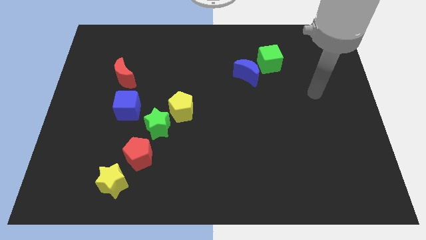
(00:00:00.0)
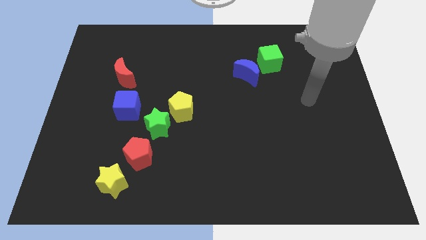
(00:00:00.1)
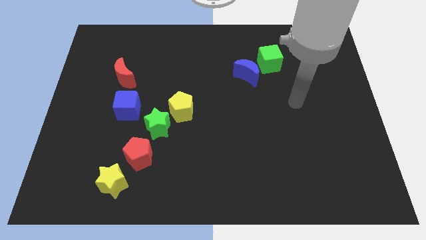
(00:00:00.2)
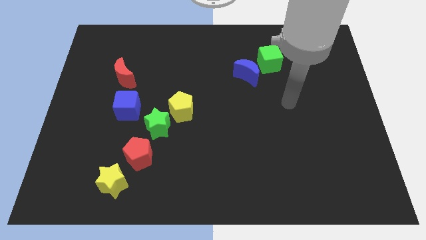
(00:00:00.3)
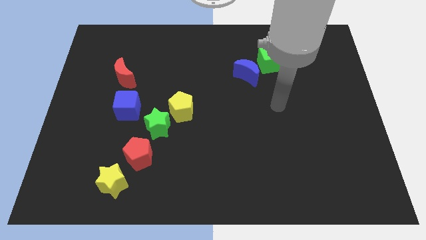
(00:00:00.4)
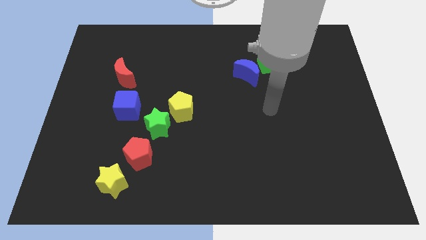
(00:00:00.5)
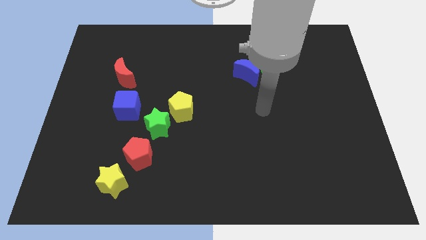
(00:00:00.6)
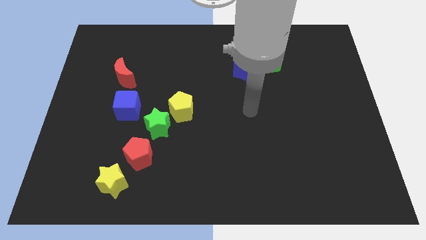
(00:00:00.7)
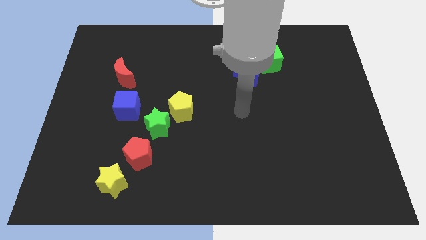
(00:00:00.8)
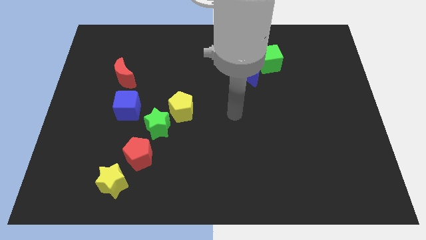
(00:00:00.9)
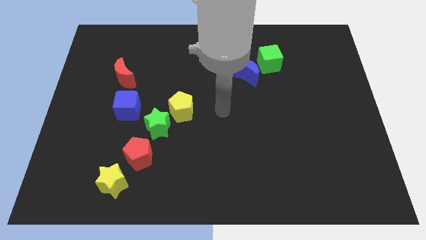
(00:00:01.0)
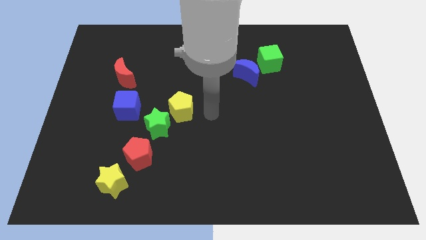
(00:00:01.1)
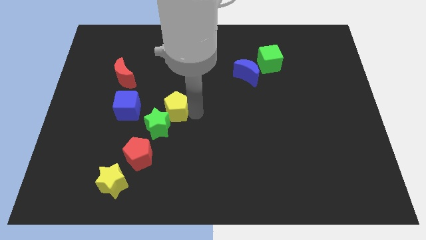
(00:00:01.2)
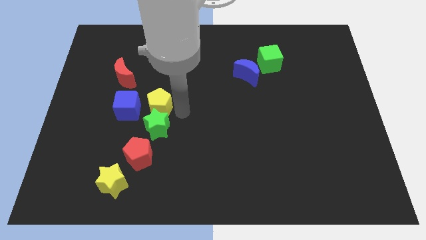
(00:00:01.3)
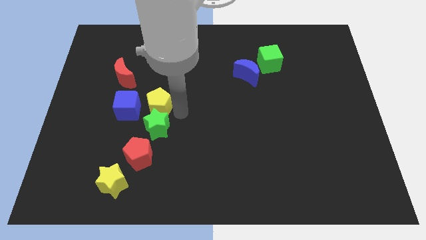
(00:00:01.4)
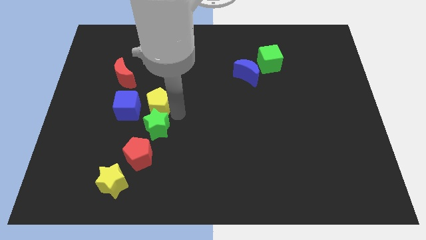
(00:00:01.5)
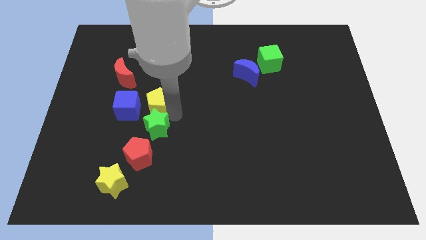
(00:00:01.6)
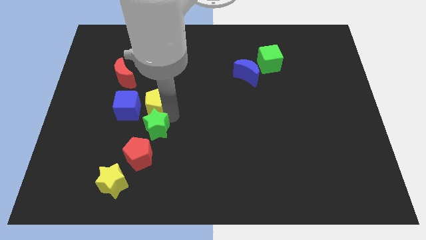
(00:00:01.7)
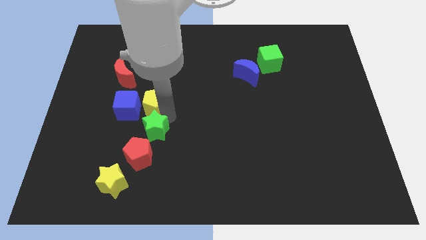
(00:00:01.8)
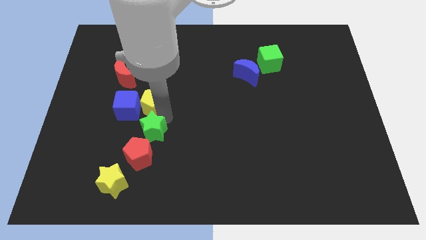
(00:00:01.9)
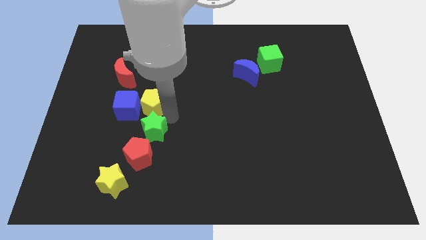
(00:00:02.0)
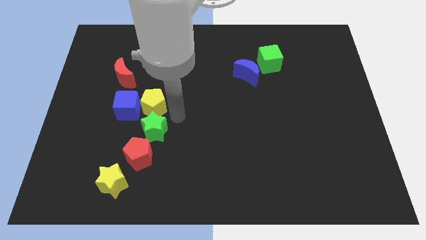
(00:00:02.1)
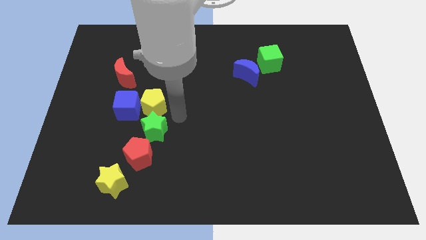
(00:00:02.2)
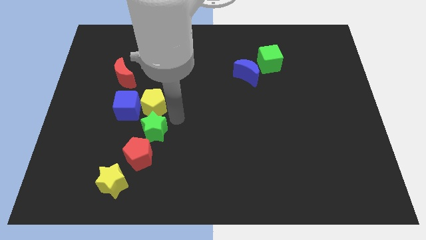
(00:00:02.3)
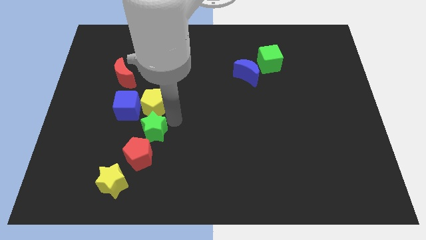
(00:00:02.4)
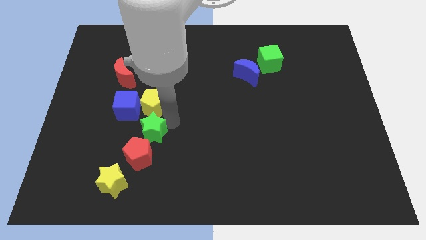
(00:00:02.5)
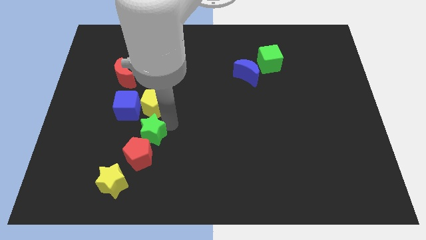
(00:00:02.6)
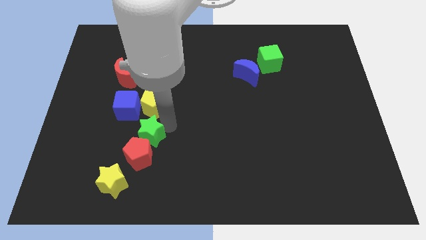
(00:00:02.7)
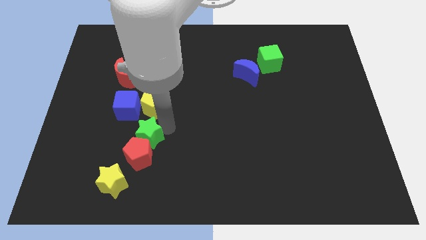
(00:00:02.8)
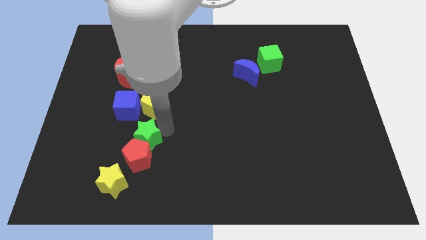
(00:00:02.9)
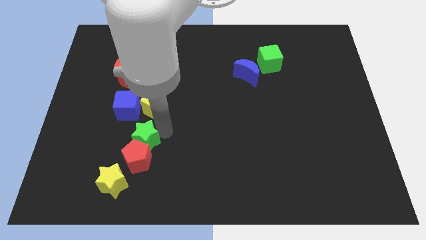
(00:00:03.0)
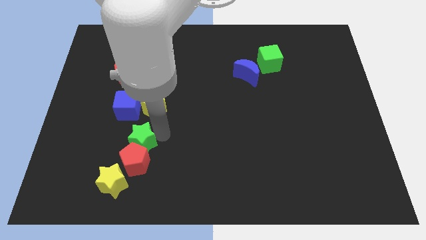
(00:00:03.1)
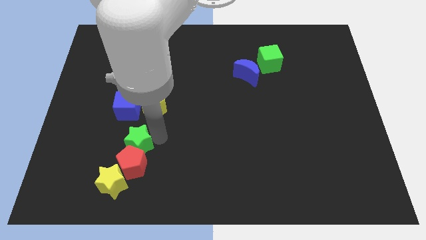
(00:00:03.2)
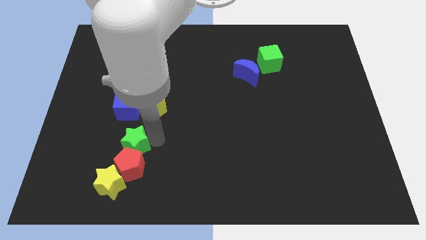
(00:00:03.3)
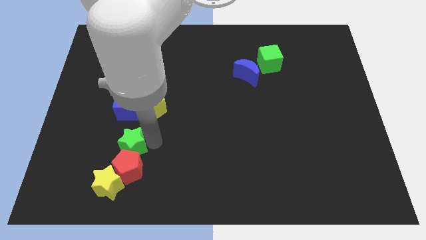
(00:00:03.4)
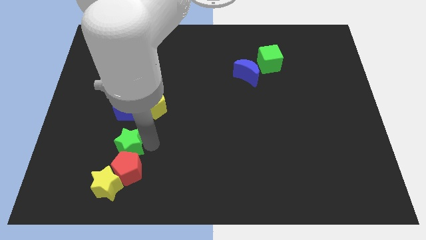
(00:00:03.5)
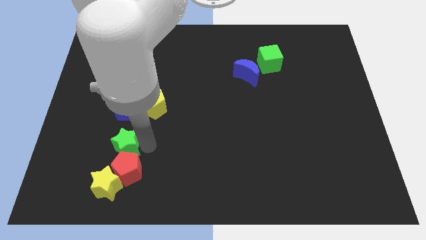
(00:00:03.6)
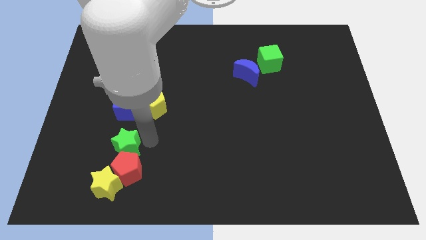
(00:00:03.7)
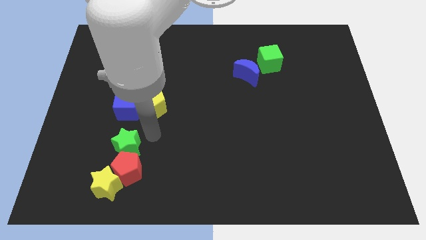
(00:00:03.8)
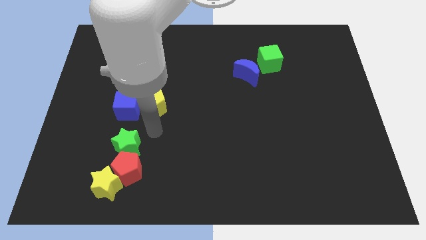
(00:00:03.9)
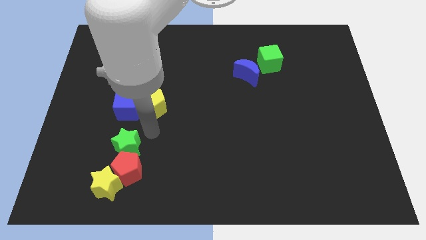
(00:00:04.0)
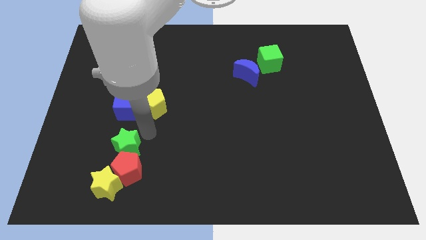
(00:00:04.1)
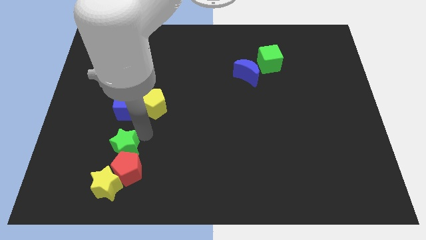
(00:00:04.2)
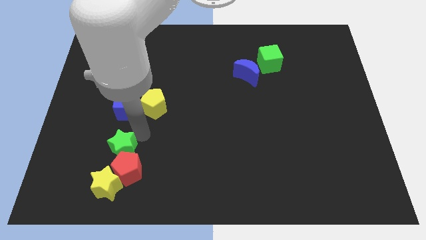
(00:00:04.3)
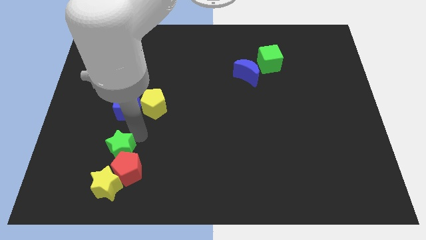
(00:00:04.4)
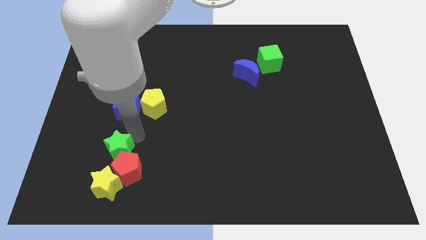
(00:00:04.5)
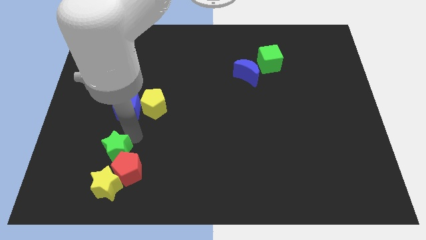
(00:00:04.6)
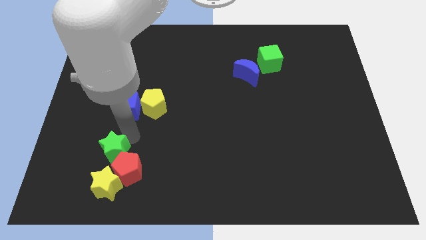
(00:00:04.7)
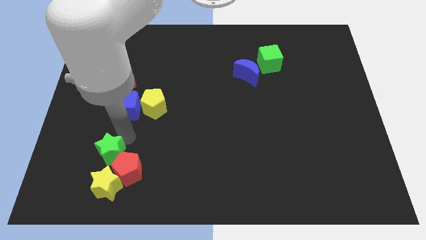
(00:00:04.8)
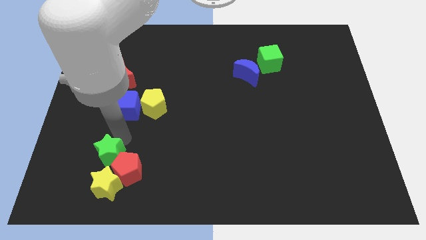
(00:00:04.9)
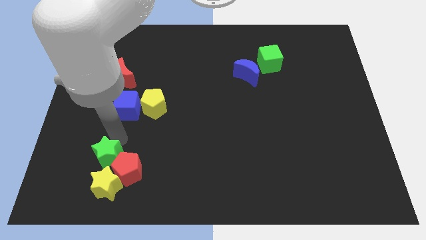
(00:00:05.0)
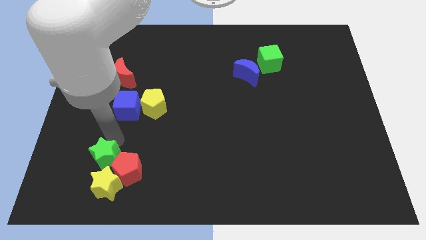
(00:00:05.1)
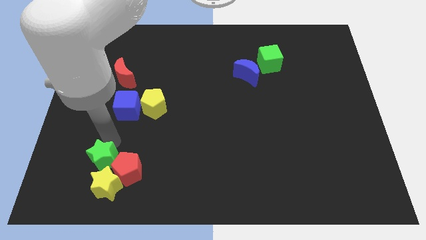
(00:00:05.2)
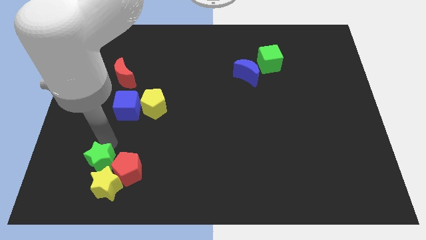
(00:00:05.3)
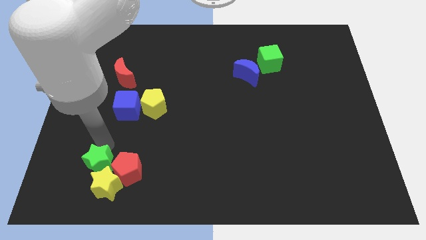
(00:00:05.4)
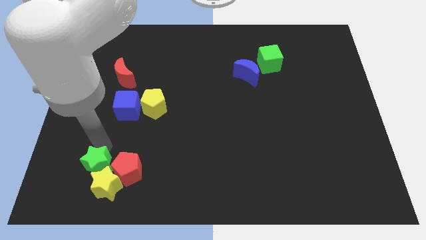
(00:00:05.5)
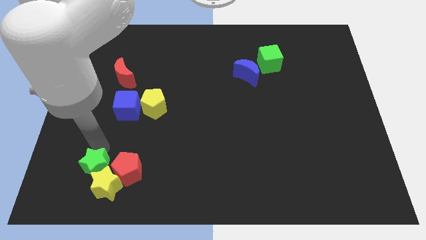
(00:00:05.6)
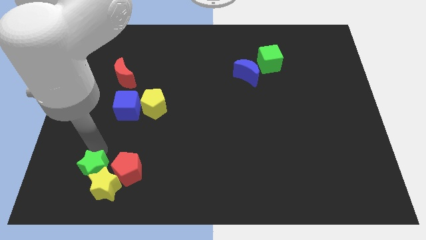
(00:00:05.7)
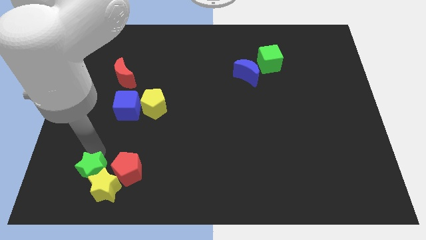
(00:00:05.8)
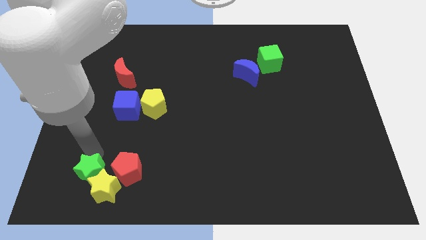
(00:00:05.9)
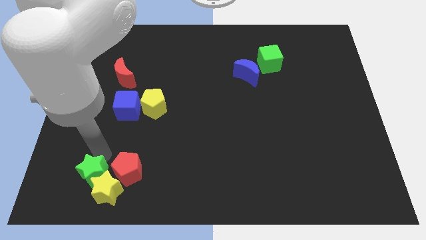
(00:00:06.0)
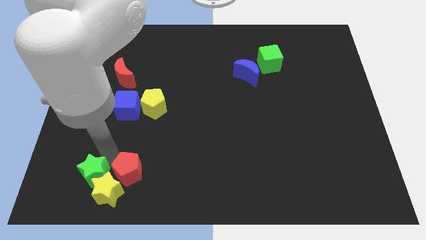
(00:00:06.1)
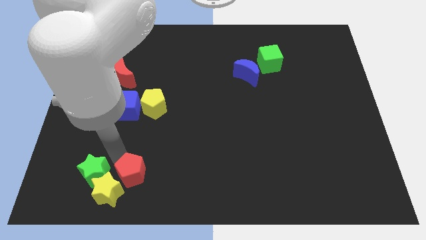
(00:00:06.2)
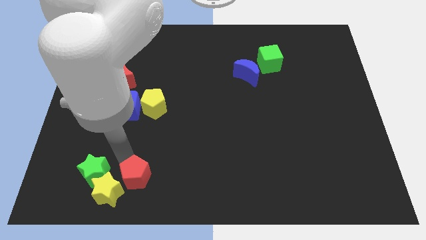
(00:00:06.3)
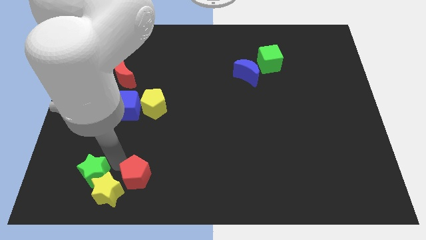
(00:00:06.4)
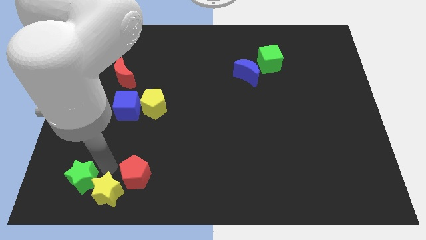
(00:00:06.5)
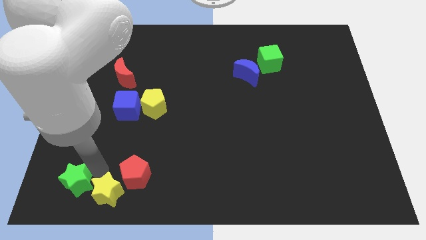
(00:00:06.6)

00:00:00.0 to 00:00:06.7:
put the green star to the lower left corner
